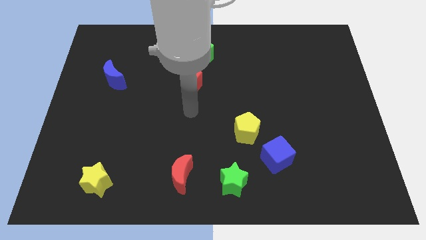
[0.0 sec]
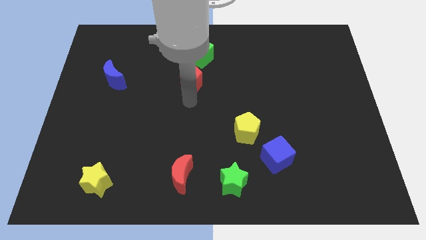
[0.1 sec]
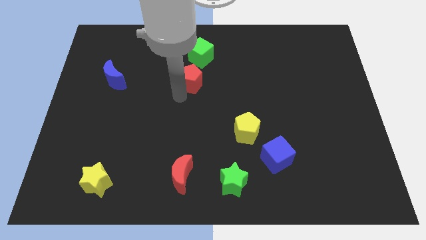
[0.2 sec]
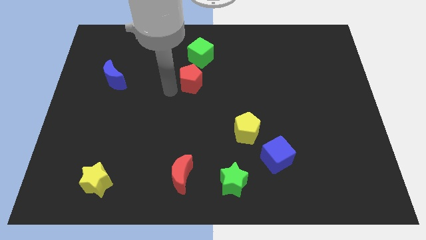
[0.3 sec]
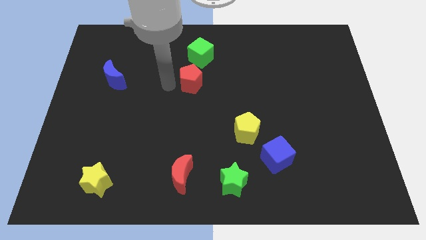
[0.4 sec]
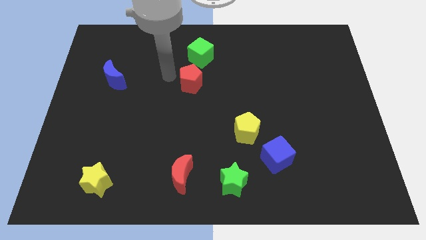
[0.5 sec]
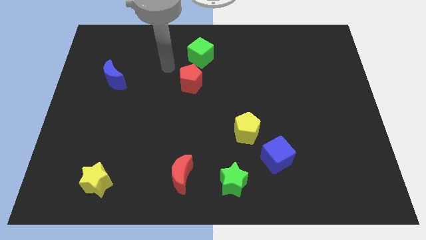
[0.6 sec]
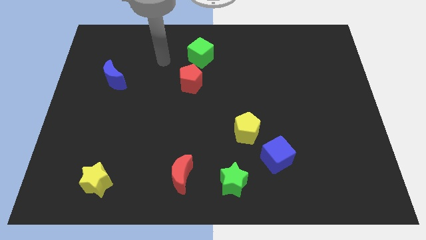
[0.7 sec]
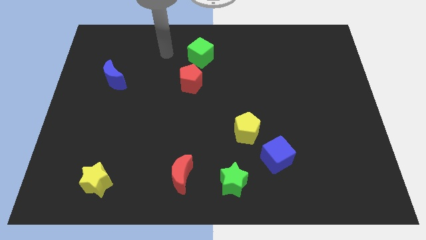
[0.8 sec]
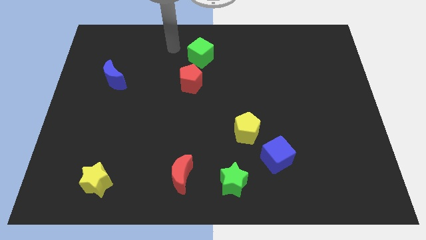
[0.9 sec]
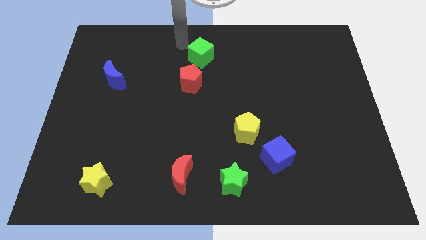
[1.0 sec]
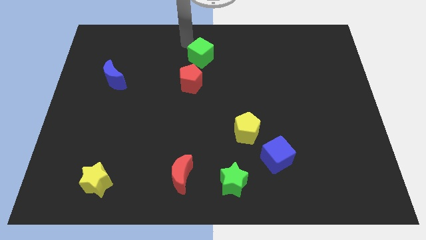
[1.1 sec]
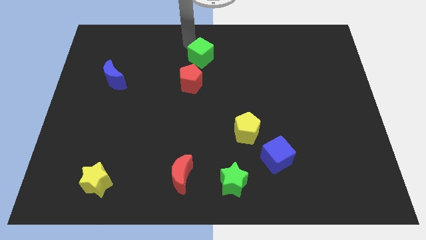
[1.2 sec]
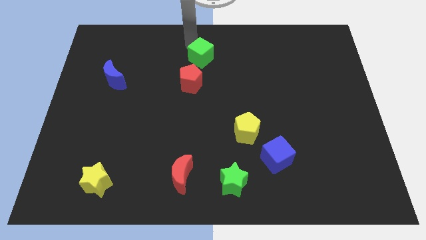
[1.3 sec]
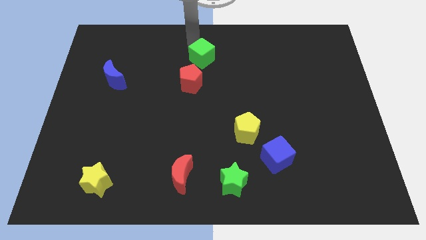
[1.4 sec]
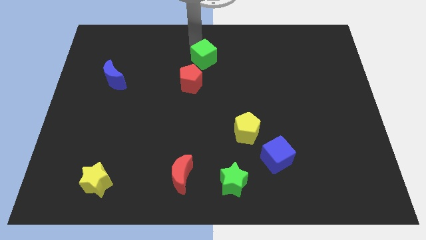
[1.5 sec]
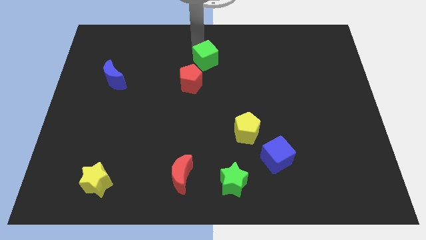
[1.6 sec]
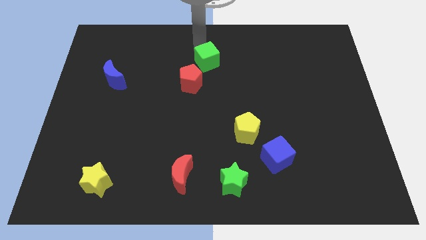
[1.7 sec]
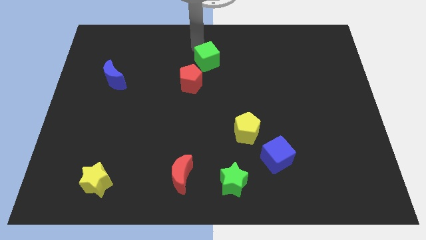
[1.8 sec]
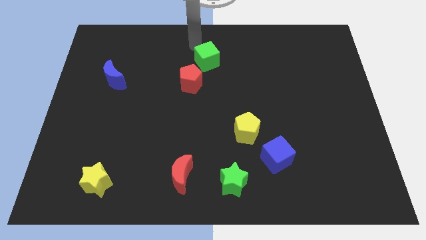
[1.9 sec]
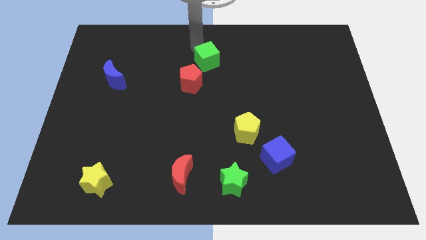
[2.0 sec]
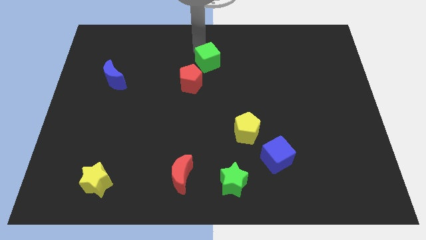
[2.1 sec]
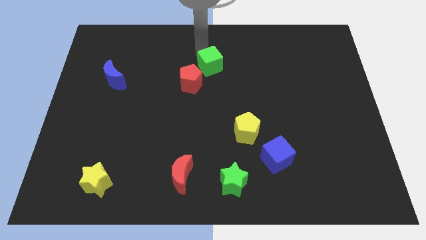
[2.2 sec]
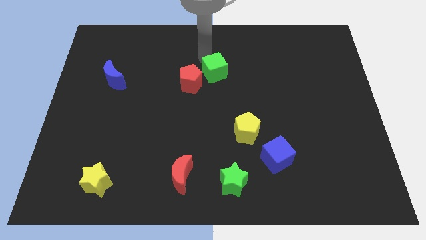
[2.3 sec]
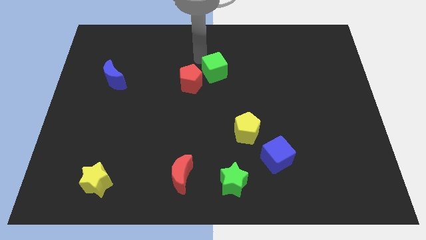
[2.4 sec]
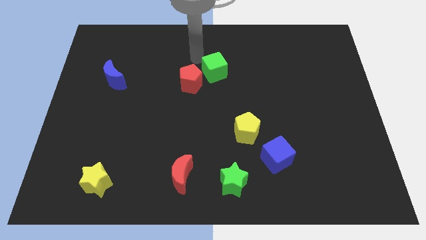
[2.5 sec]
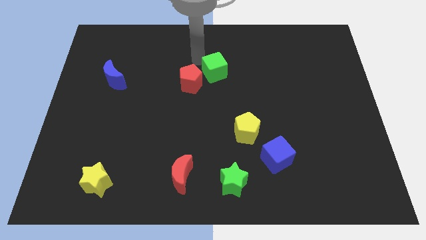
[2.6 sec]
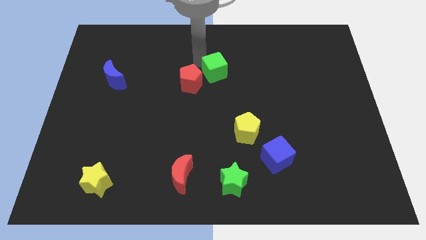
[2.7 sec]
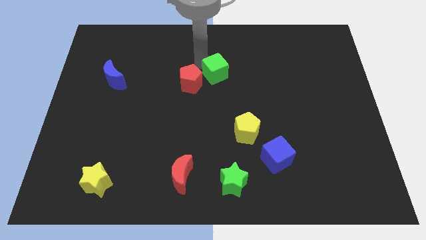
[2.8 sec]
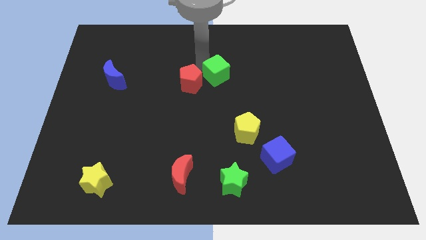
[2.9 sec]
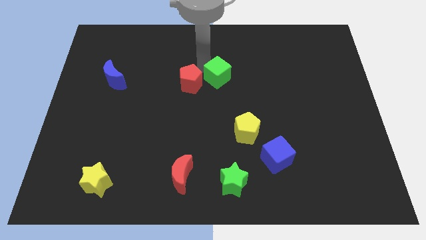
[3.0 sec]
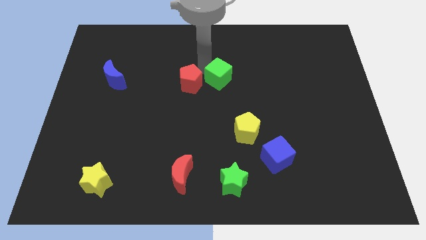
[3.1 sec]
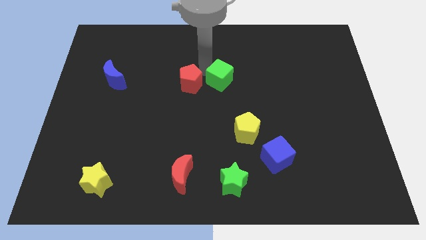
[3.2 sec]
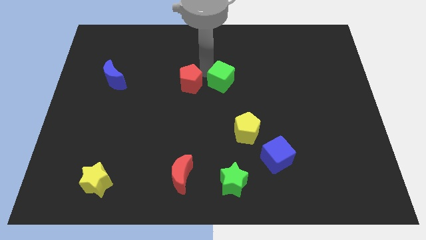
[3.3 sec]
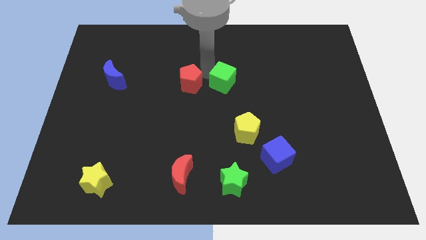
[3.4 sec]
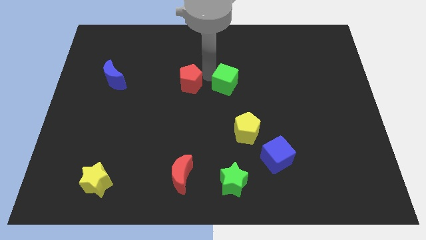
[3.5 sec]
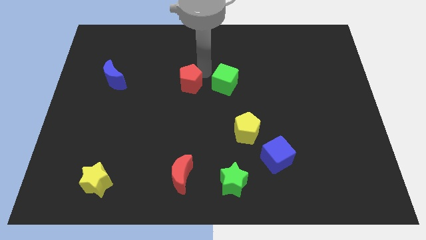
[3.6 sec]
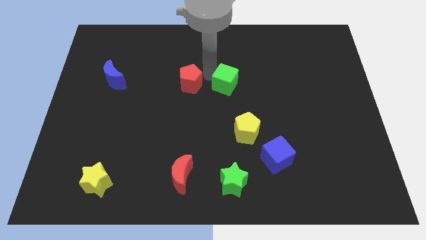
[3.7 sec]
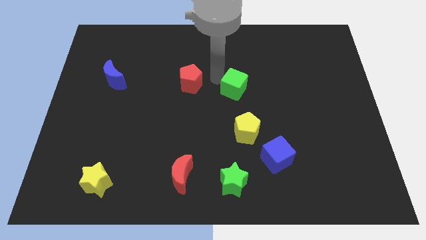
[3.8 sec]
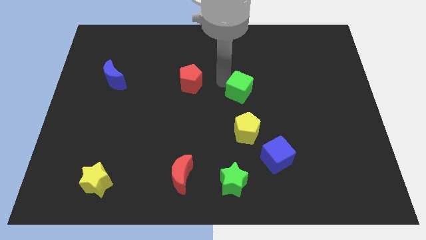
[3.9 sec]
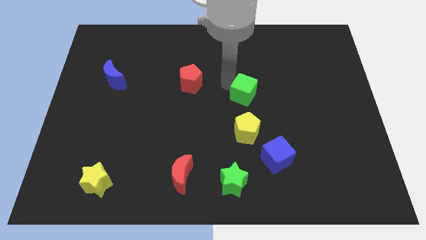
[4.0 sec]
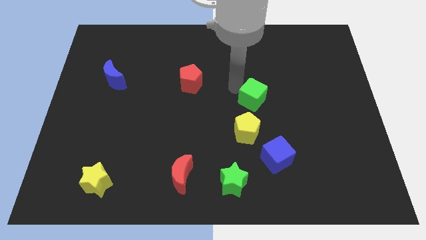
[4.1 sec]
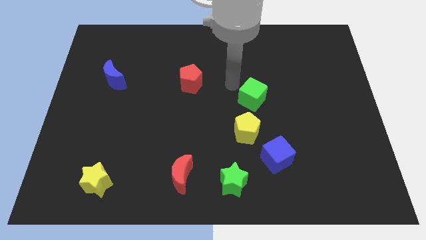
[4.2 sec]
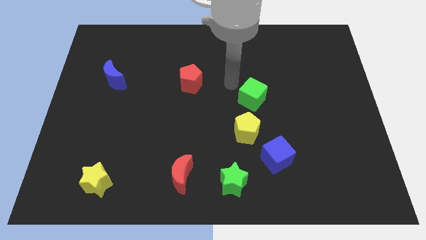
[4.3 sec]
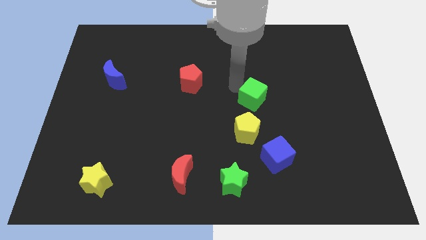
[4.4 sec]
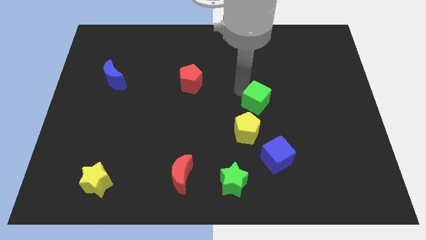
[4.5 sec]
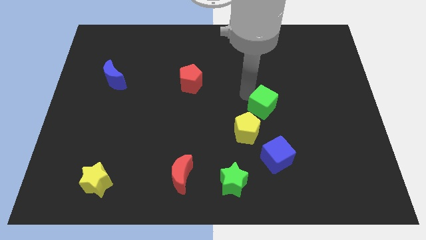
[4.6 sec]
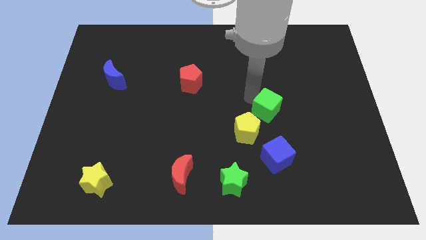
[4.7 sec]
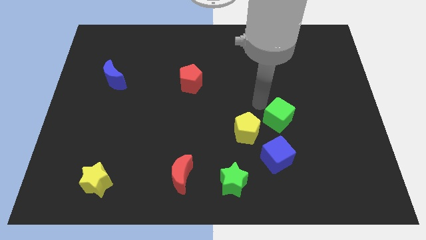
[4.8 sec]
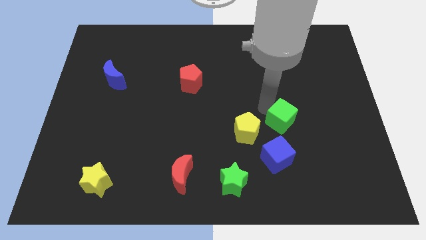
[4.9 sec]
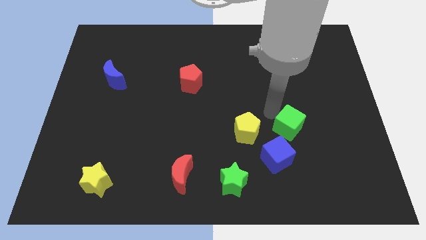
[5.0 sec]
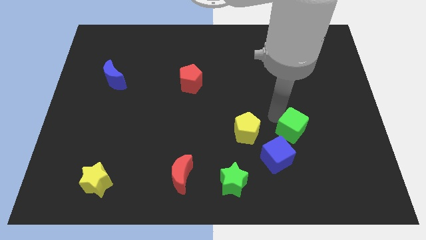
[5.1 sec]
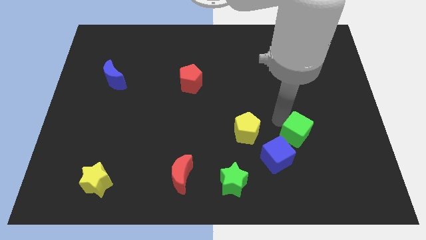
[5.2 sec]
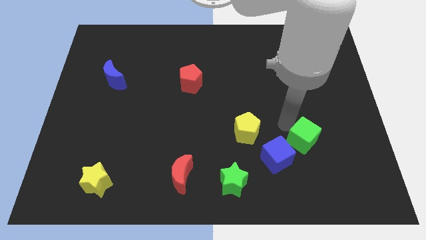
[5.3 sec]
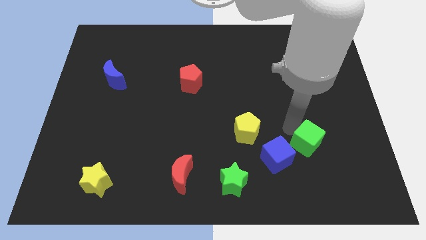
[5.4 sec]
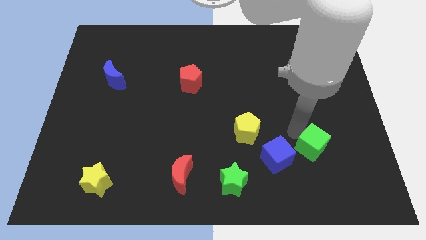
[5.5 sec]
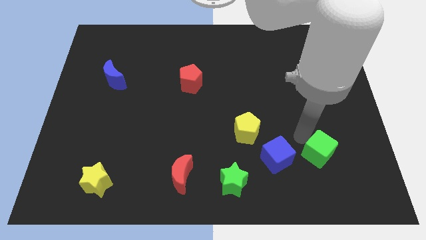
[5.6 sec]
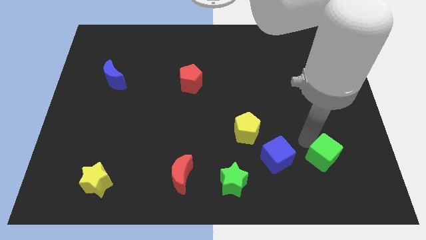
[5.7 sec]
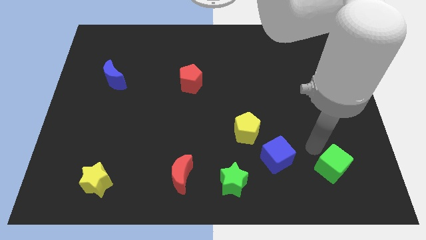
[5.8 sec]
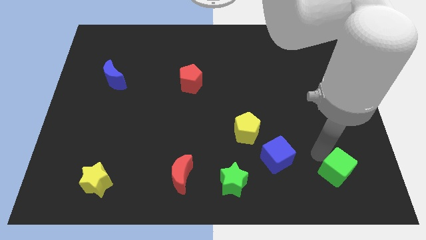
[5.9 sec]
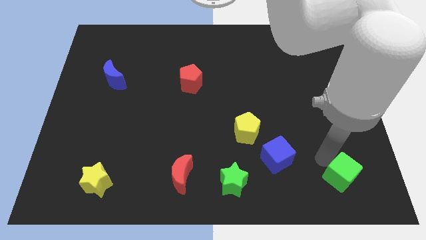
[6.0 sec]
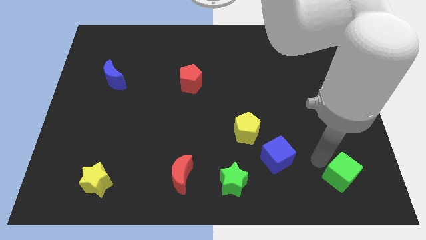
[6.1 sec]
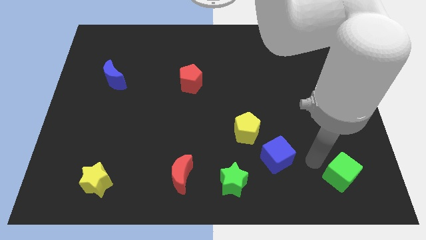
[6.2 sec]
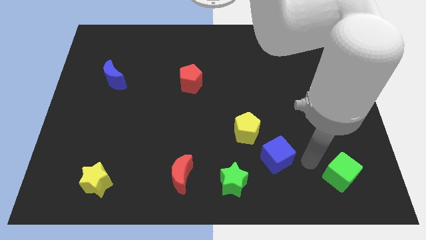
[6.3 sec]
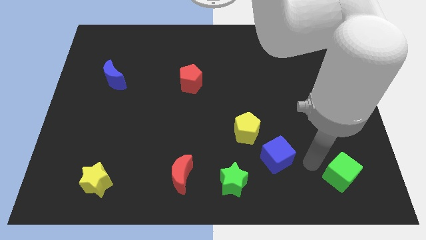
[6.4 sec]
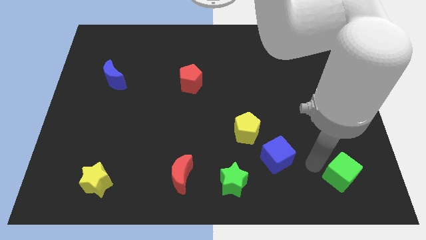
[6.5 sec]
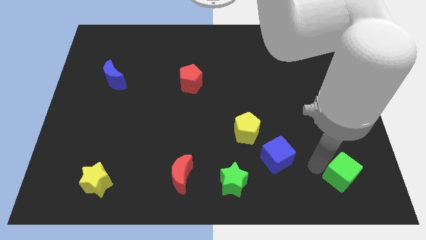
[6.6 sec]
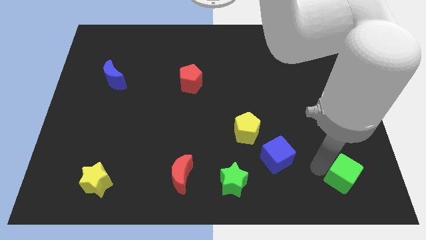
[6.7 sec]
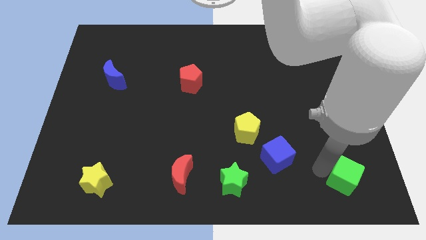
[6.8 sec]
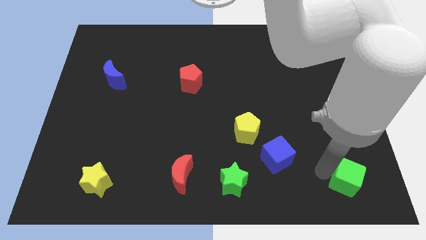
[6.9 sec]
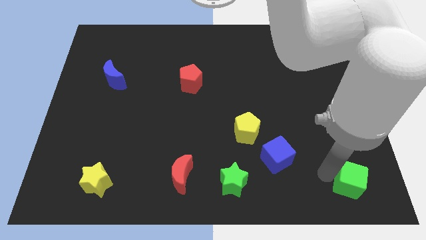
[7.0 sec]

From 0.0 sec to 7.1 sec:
push the green cube to the lower right corner
